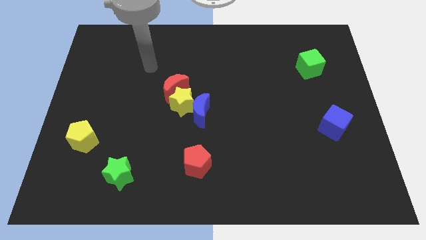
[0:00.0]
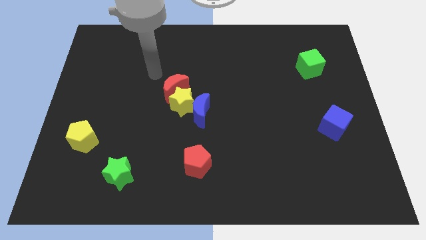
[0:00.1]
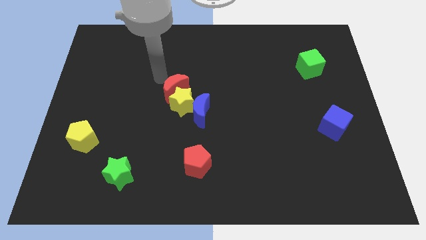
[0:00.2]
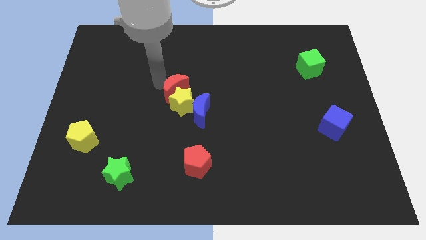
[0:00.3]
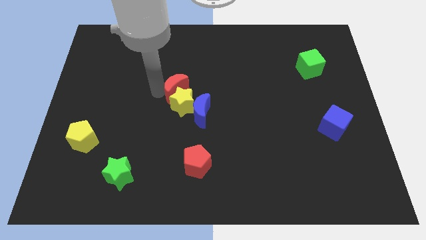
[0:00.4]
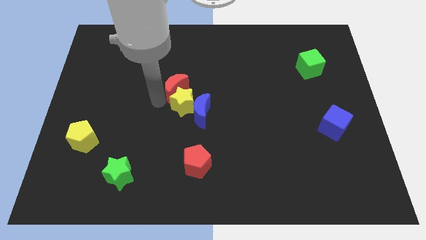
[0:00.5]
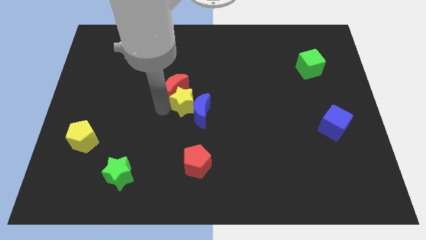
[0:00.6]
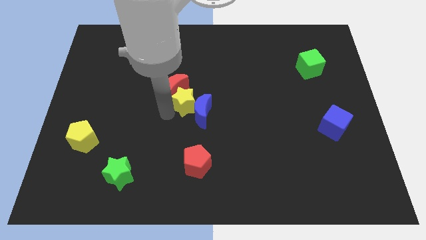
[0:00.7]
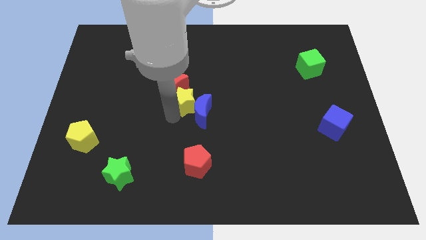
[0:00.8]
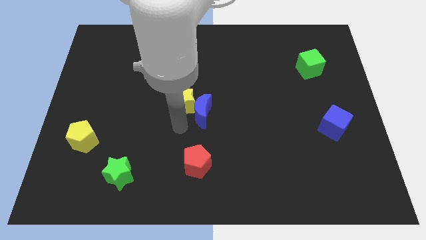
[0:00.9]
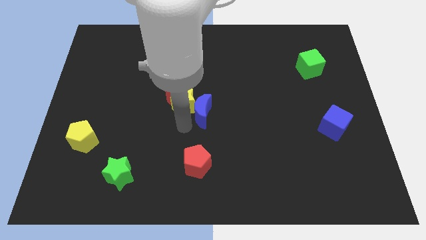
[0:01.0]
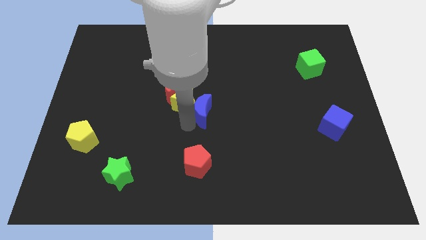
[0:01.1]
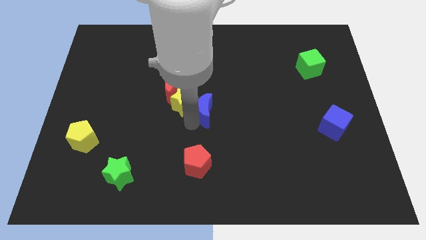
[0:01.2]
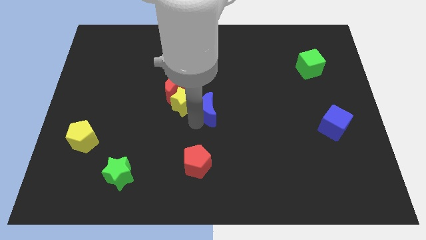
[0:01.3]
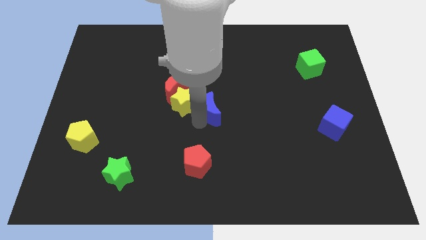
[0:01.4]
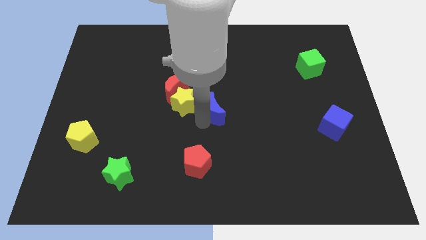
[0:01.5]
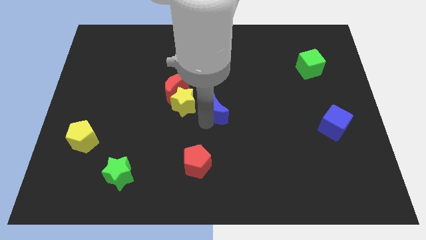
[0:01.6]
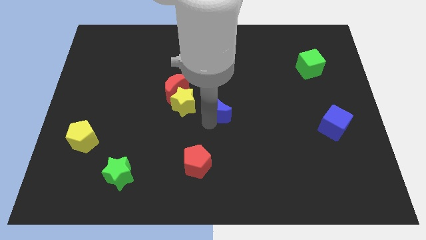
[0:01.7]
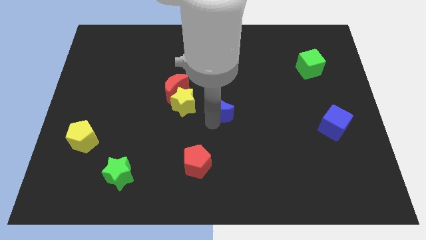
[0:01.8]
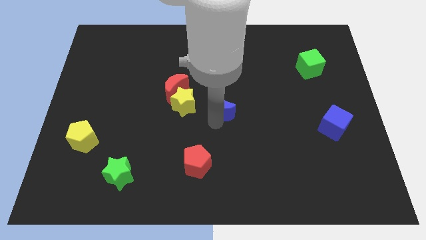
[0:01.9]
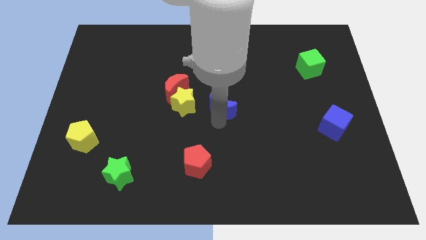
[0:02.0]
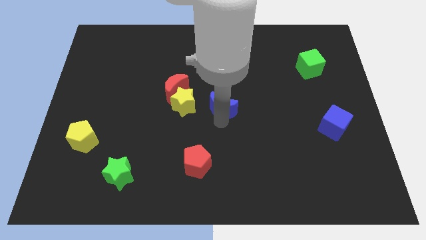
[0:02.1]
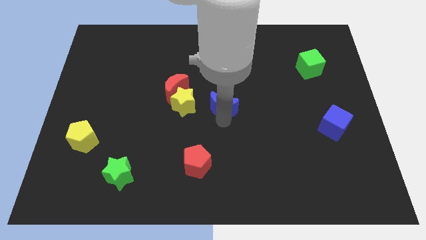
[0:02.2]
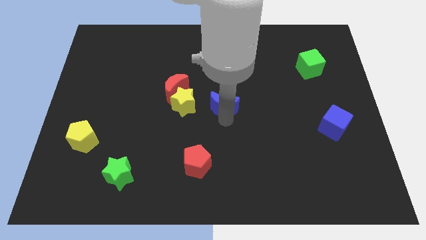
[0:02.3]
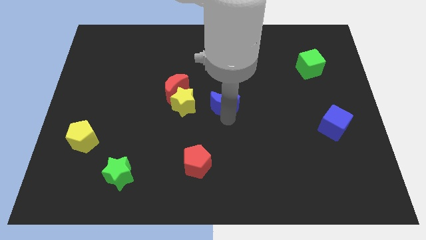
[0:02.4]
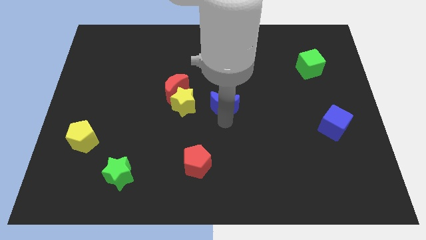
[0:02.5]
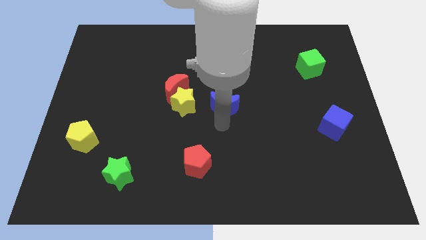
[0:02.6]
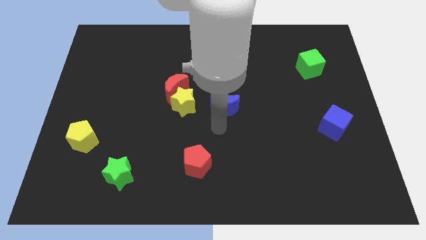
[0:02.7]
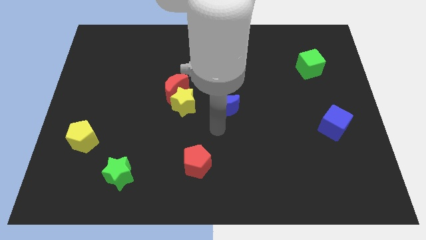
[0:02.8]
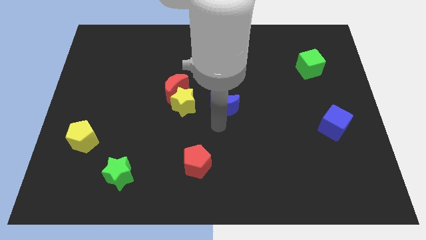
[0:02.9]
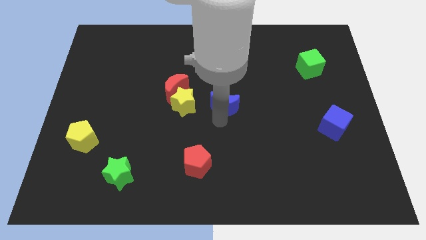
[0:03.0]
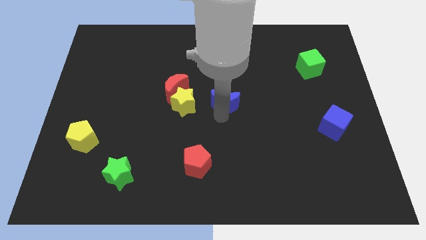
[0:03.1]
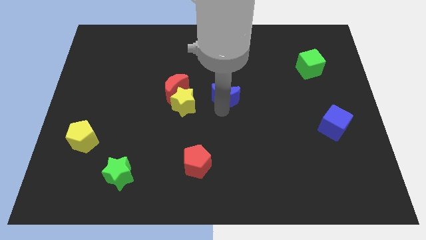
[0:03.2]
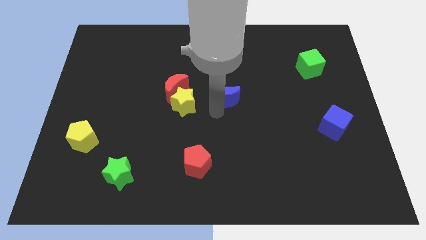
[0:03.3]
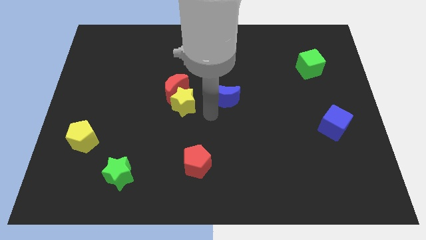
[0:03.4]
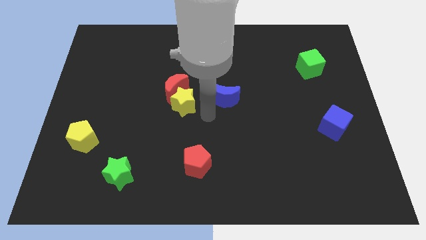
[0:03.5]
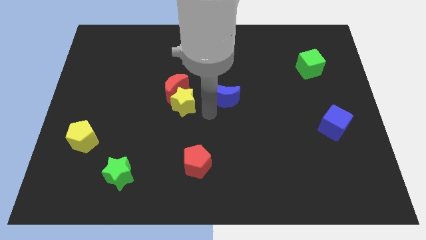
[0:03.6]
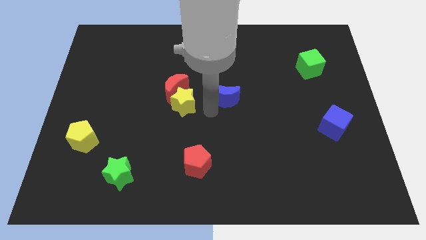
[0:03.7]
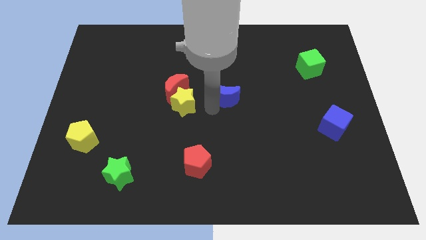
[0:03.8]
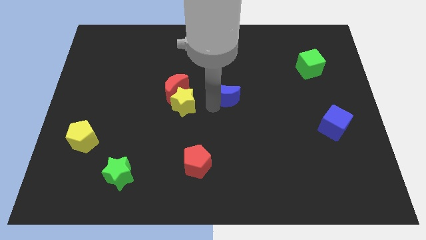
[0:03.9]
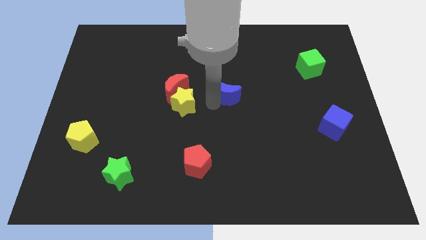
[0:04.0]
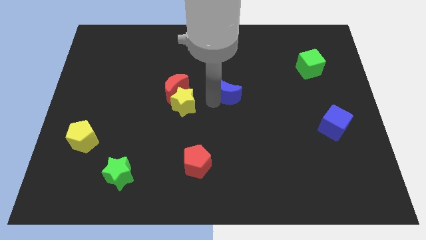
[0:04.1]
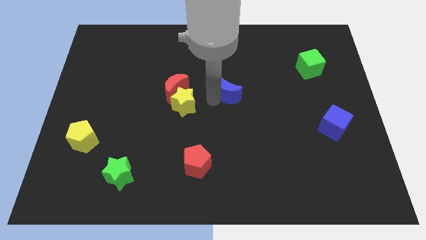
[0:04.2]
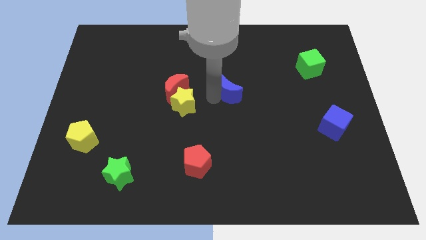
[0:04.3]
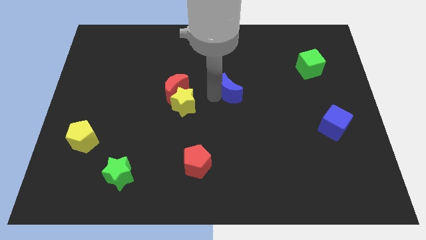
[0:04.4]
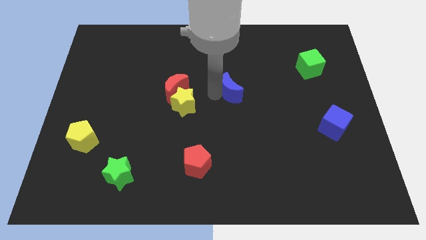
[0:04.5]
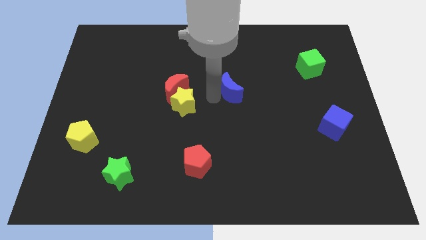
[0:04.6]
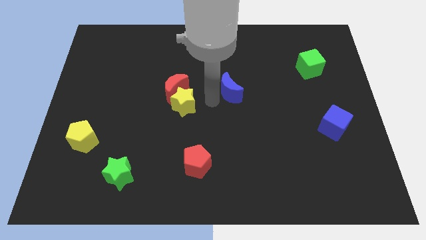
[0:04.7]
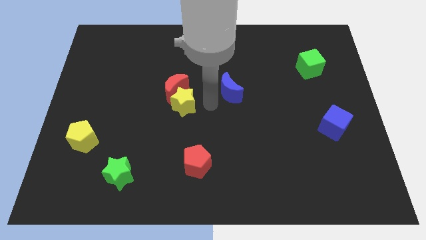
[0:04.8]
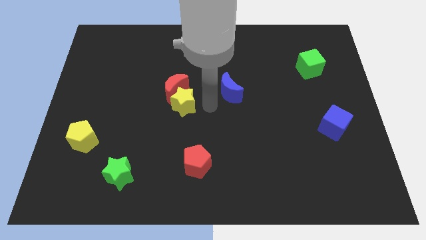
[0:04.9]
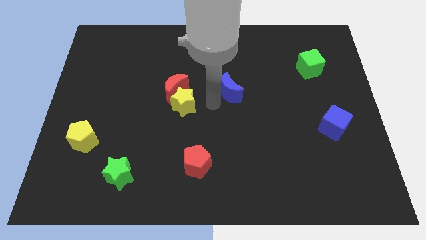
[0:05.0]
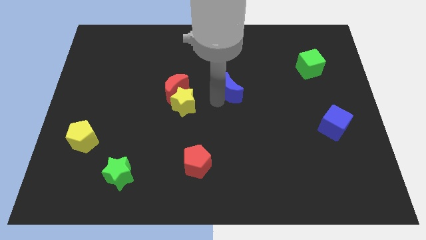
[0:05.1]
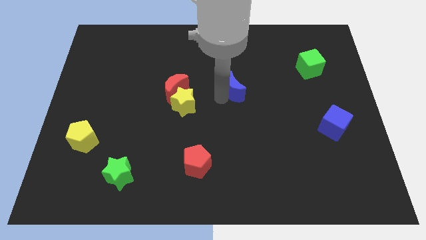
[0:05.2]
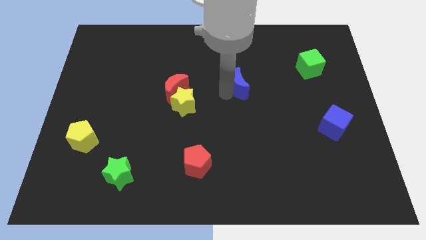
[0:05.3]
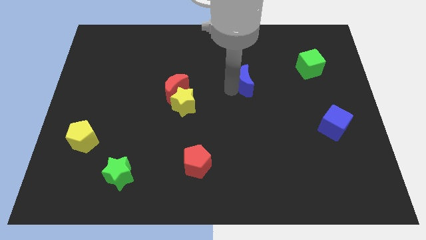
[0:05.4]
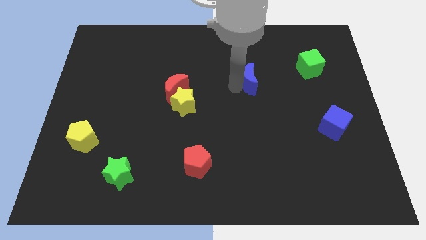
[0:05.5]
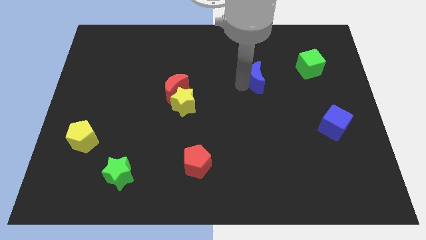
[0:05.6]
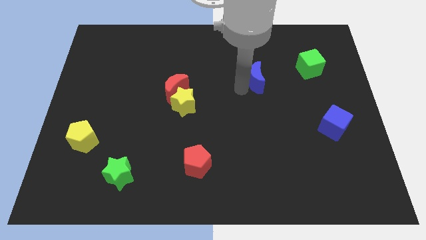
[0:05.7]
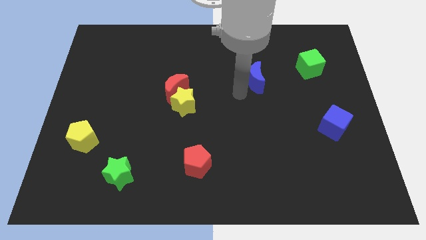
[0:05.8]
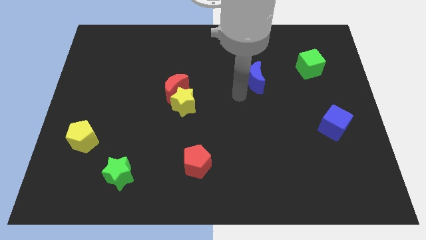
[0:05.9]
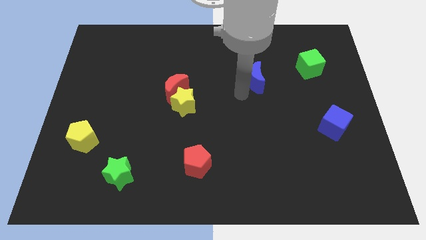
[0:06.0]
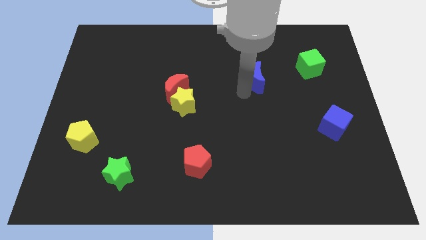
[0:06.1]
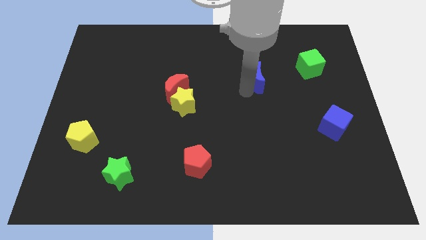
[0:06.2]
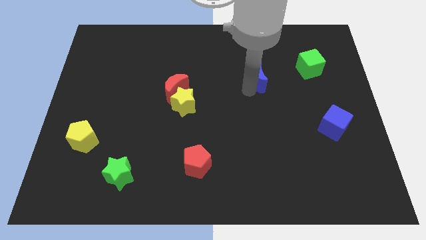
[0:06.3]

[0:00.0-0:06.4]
move the blue moon to the left side of the green cube
